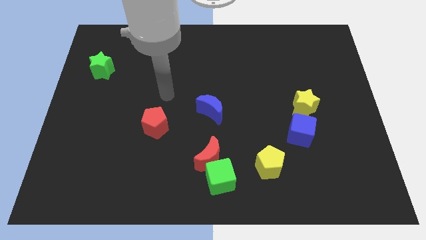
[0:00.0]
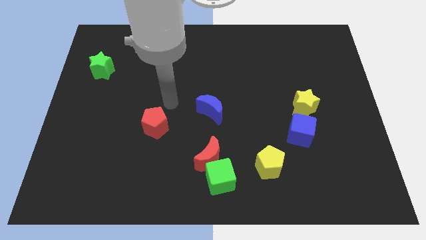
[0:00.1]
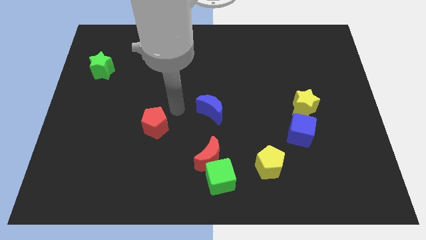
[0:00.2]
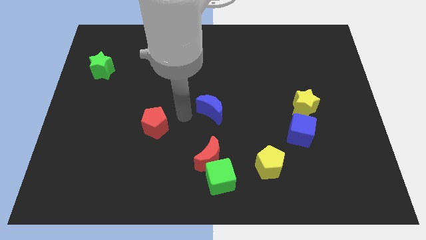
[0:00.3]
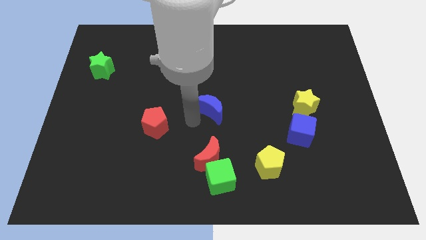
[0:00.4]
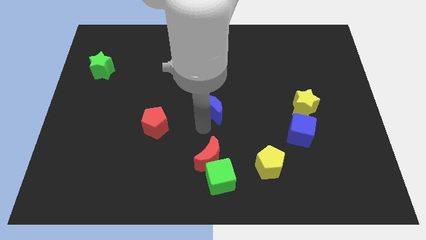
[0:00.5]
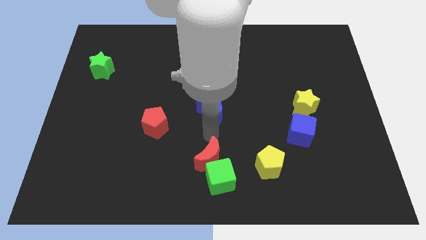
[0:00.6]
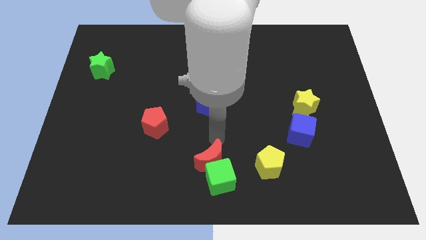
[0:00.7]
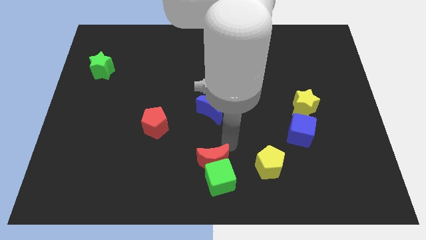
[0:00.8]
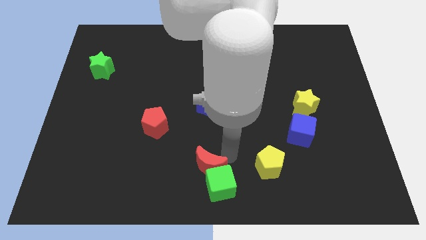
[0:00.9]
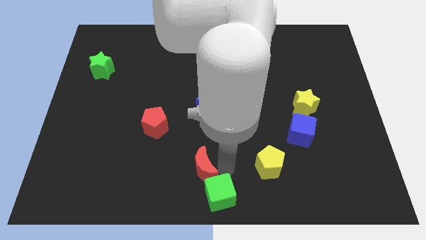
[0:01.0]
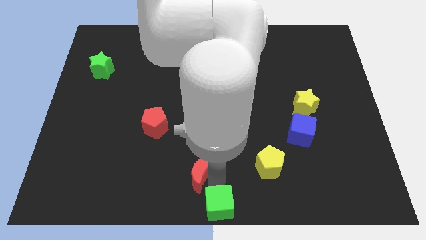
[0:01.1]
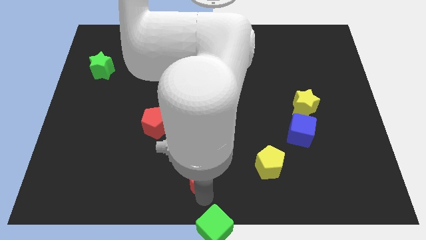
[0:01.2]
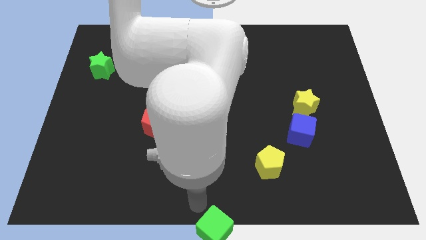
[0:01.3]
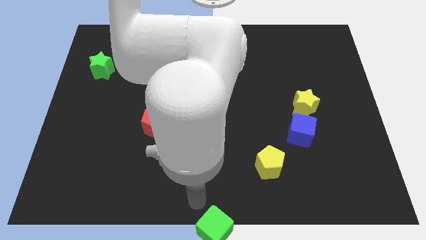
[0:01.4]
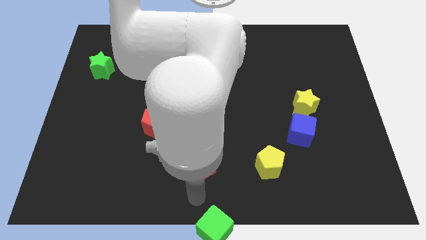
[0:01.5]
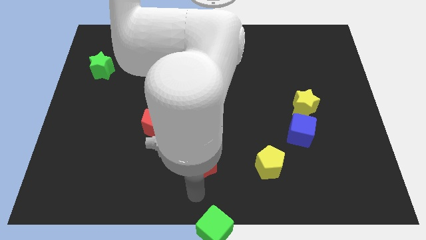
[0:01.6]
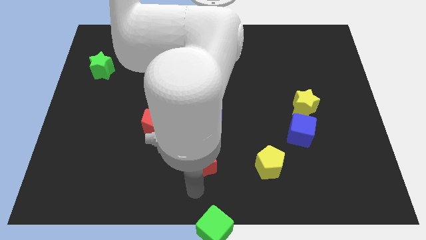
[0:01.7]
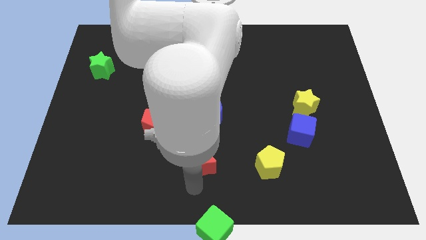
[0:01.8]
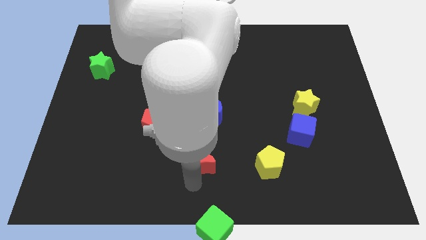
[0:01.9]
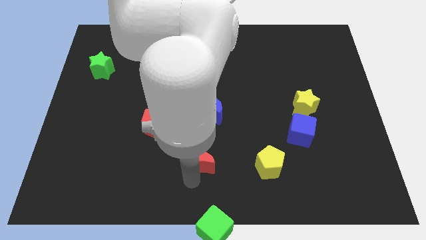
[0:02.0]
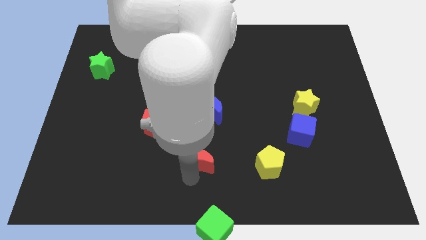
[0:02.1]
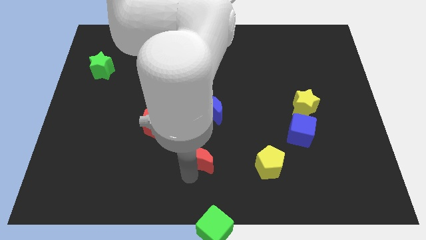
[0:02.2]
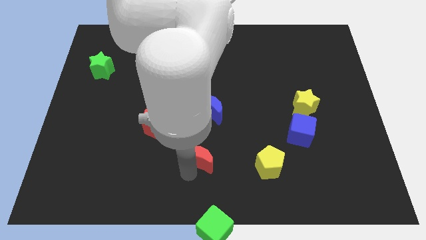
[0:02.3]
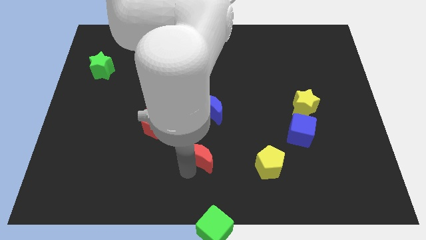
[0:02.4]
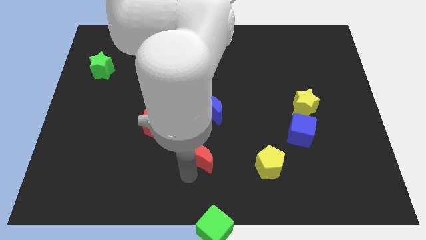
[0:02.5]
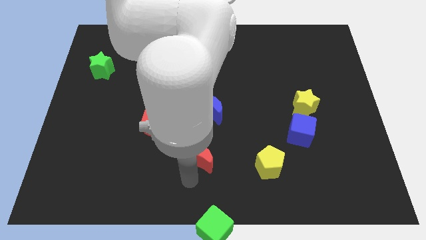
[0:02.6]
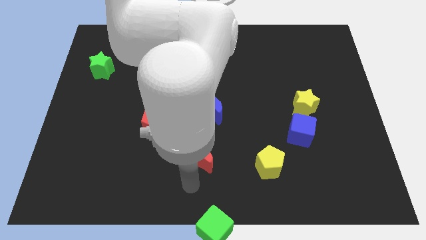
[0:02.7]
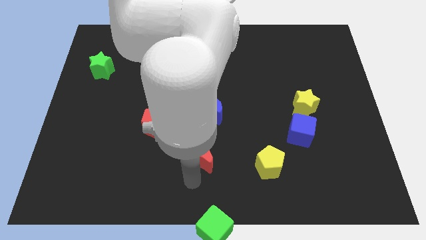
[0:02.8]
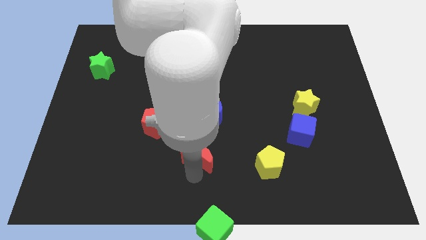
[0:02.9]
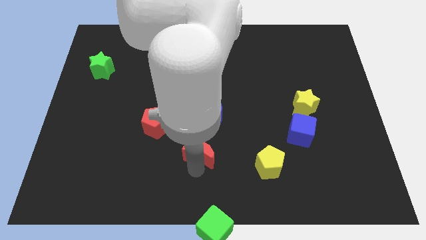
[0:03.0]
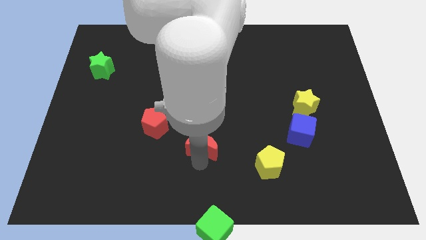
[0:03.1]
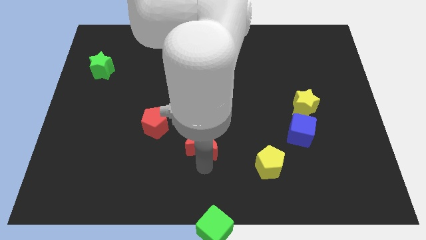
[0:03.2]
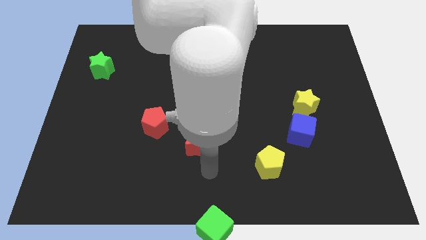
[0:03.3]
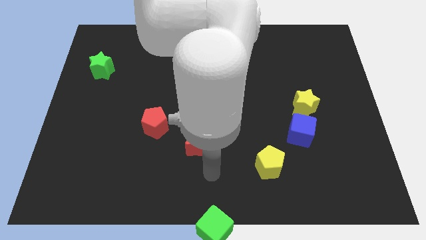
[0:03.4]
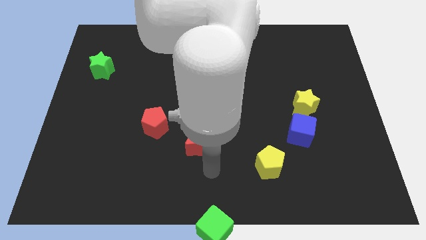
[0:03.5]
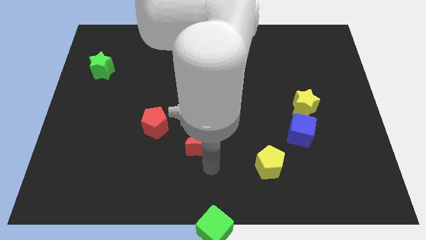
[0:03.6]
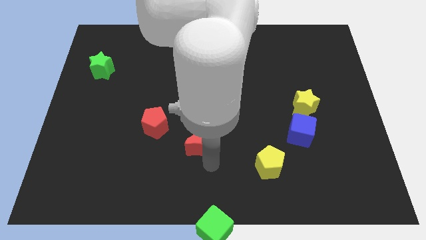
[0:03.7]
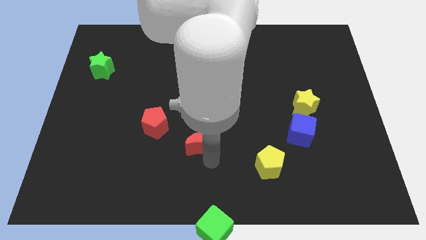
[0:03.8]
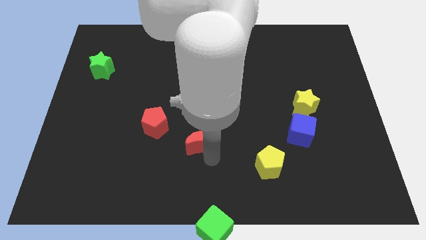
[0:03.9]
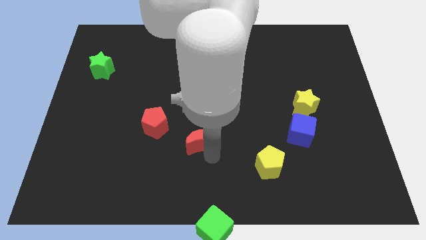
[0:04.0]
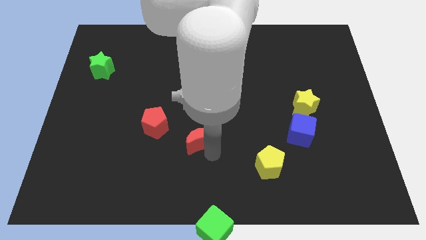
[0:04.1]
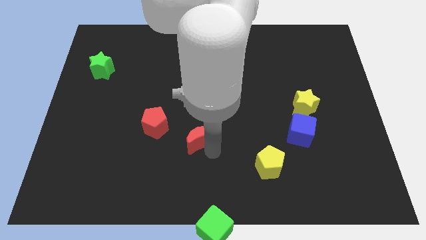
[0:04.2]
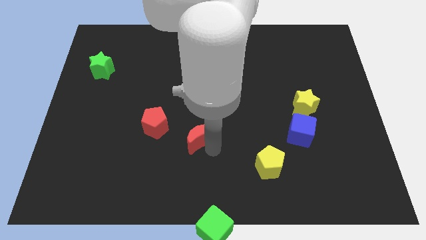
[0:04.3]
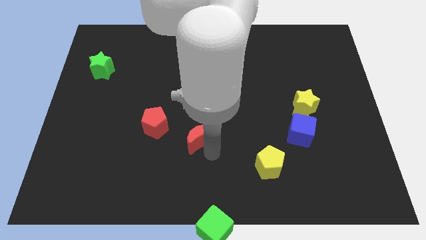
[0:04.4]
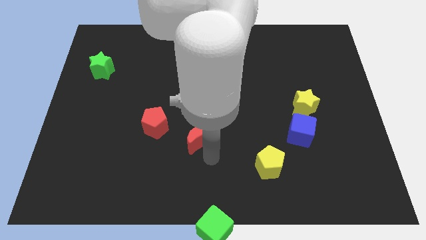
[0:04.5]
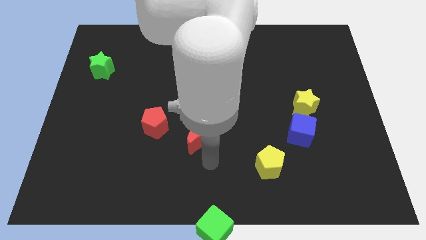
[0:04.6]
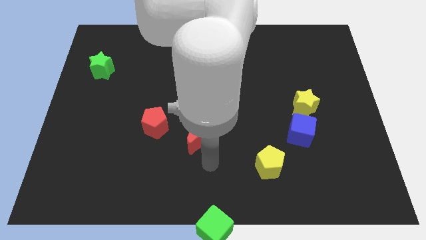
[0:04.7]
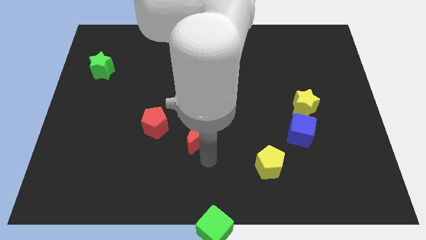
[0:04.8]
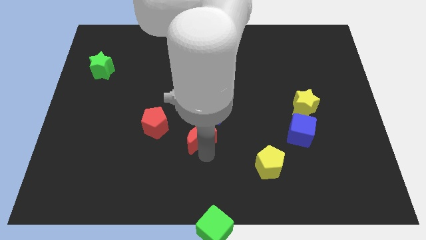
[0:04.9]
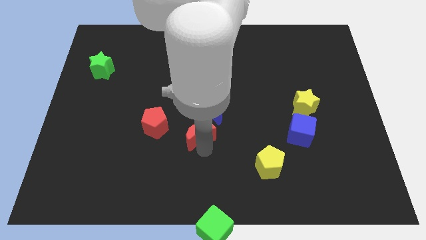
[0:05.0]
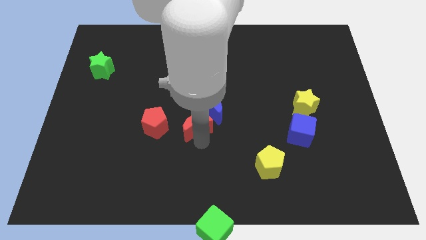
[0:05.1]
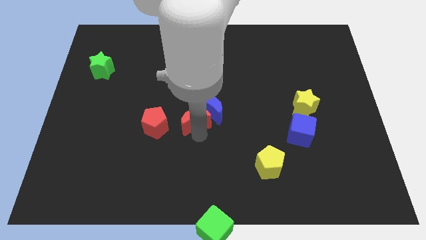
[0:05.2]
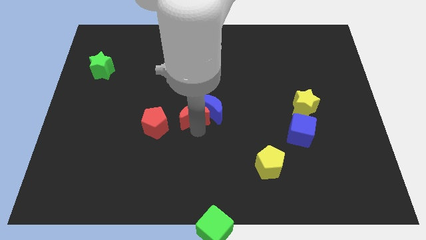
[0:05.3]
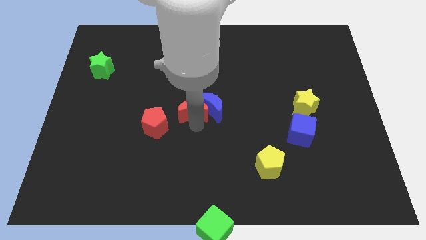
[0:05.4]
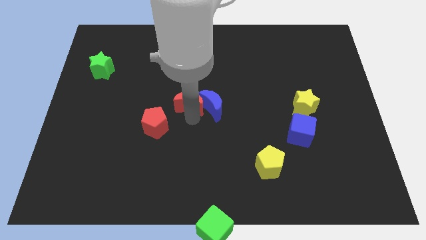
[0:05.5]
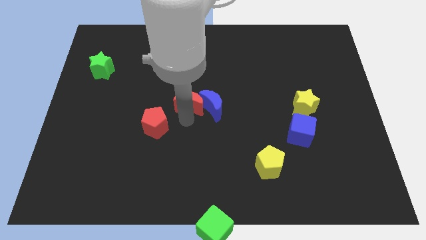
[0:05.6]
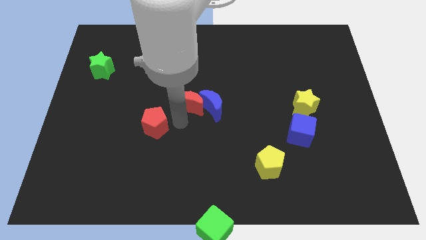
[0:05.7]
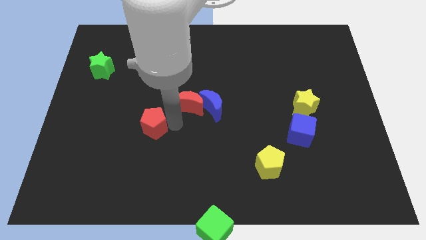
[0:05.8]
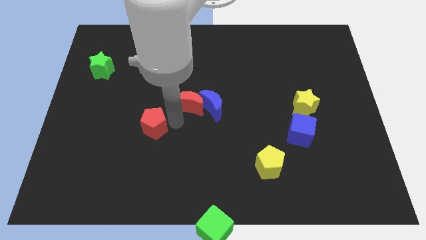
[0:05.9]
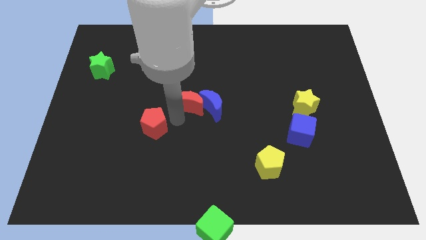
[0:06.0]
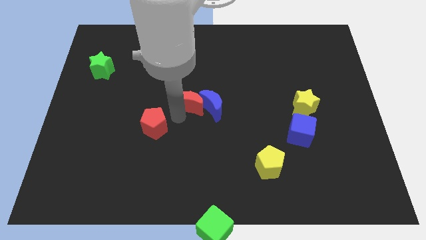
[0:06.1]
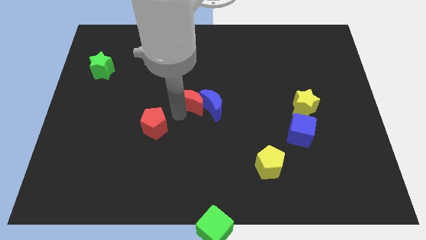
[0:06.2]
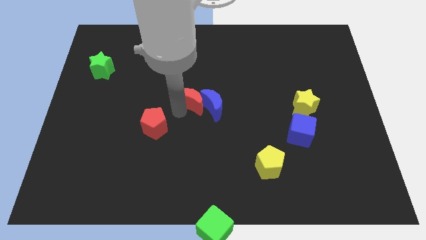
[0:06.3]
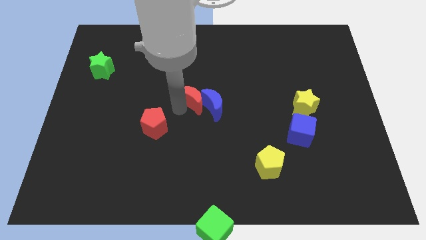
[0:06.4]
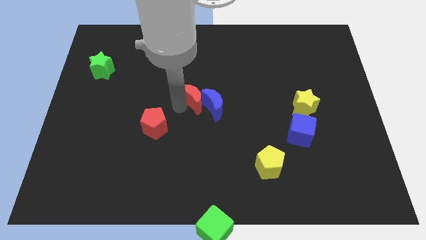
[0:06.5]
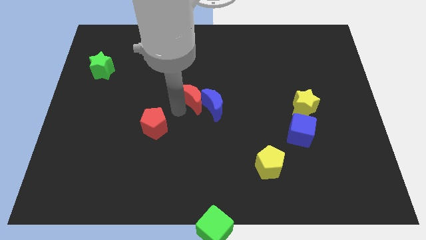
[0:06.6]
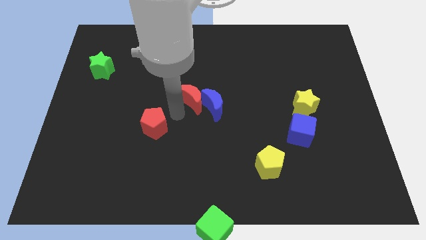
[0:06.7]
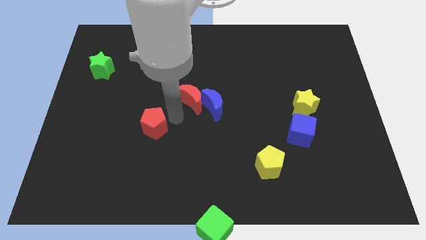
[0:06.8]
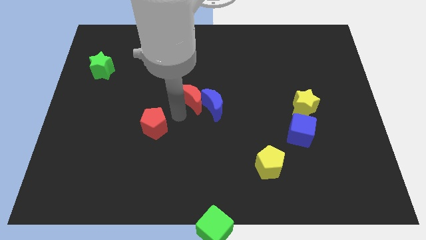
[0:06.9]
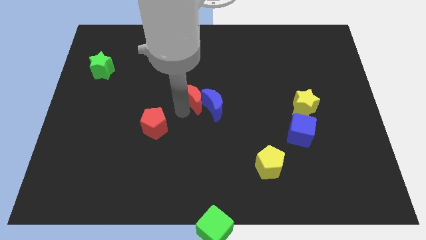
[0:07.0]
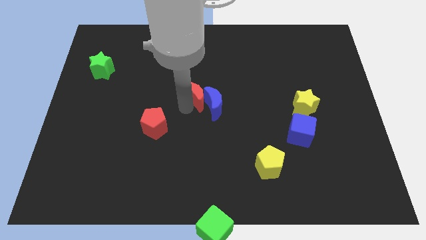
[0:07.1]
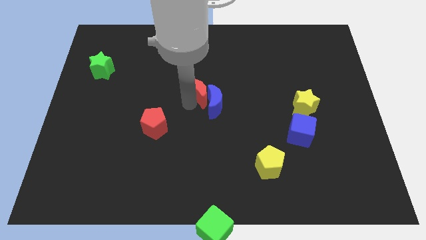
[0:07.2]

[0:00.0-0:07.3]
push the red moon to the top side of the blue moon
